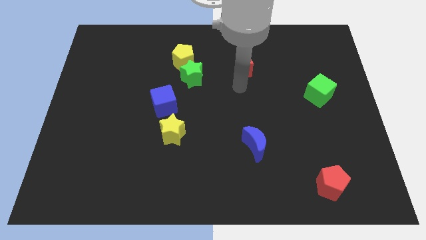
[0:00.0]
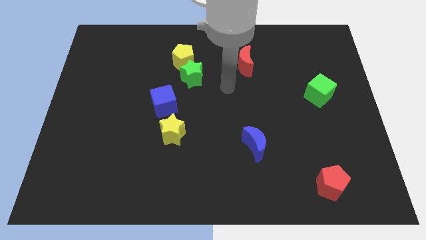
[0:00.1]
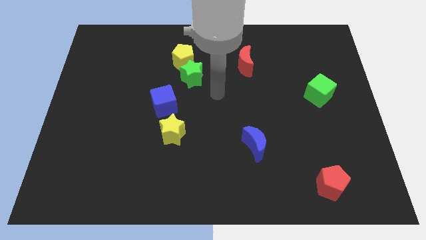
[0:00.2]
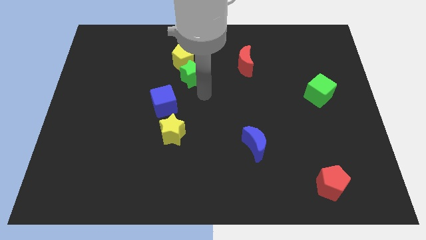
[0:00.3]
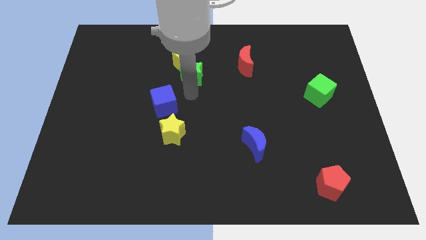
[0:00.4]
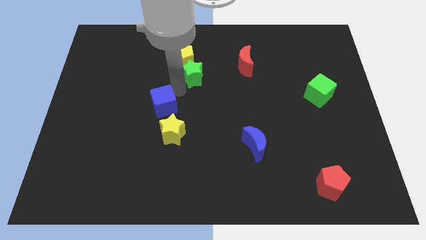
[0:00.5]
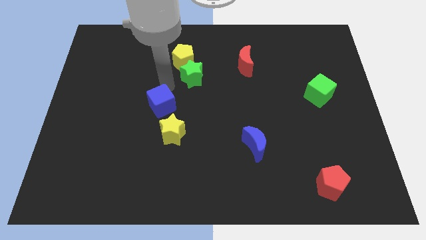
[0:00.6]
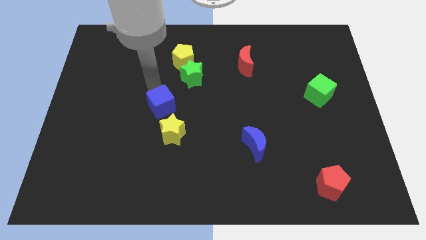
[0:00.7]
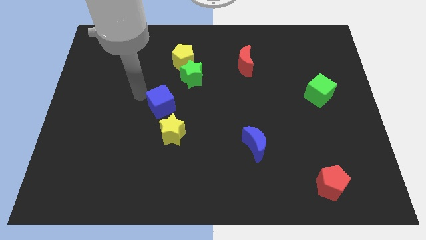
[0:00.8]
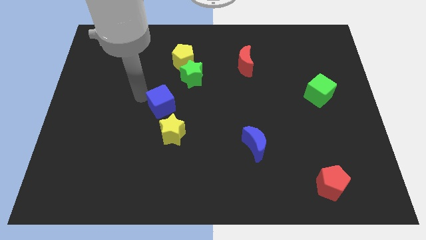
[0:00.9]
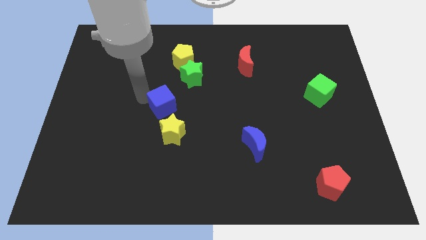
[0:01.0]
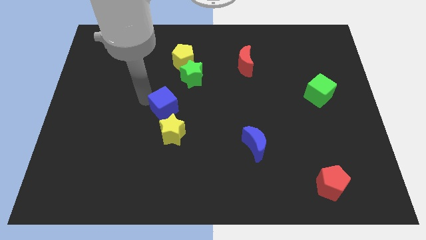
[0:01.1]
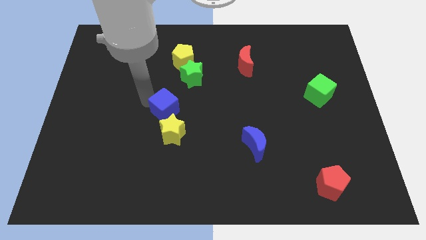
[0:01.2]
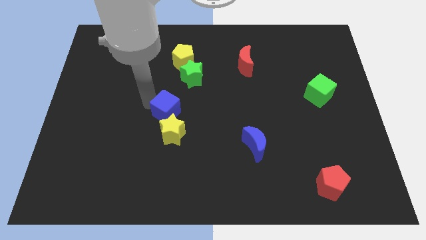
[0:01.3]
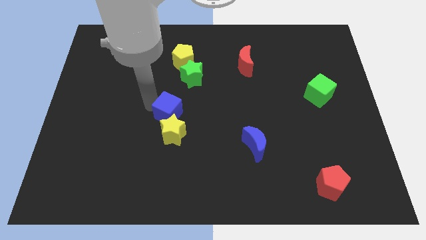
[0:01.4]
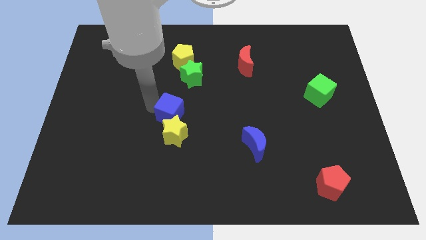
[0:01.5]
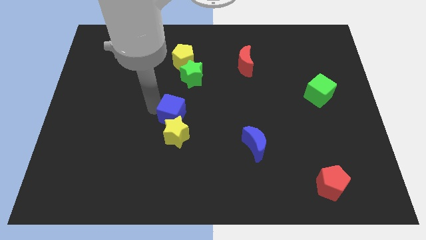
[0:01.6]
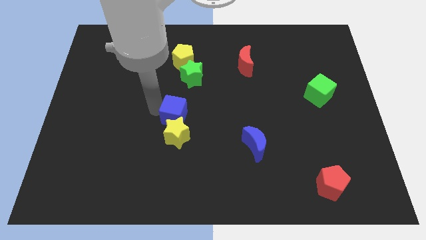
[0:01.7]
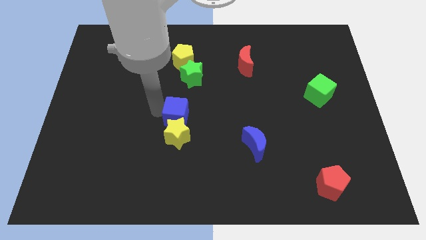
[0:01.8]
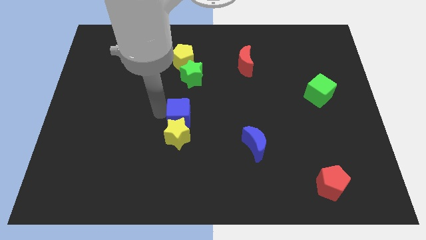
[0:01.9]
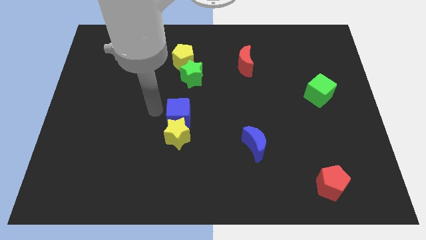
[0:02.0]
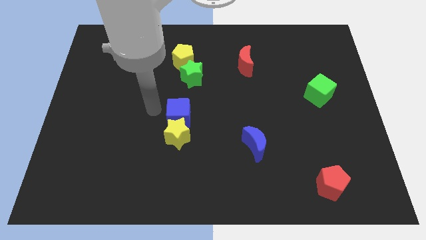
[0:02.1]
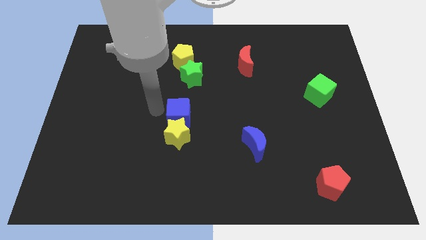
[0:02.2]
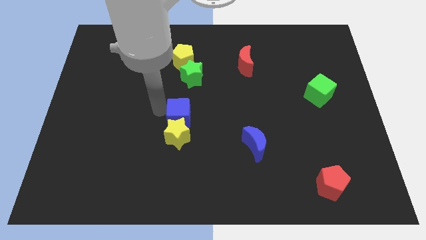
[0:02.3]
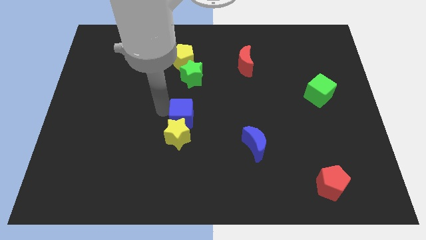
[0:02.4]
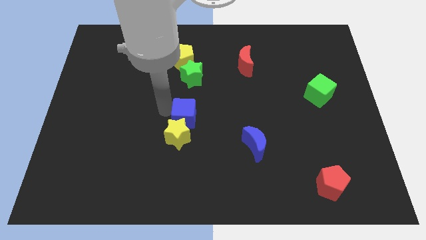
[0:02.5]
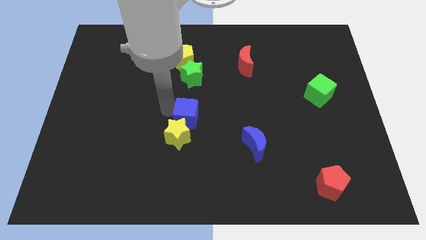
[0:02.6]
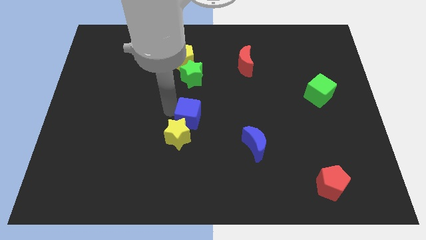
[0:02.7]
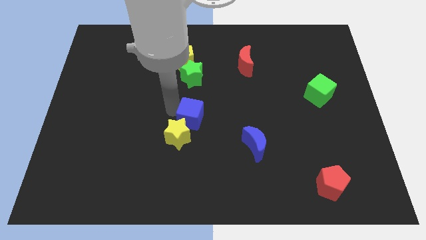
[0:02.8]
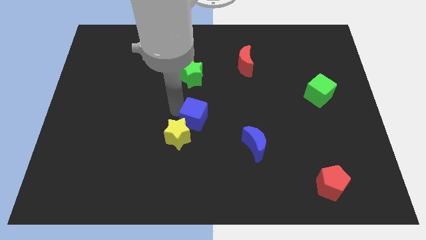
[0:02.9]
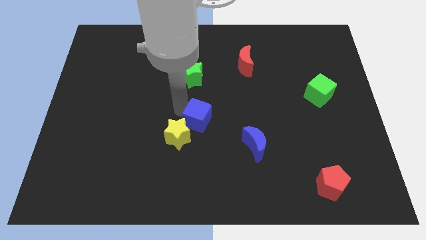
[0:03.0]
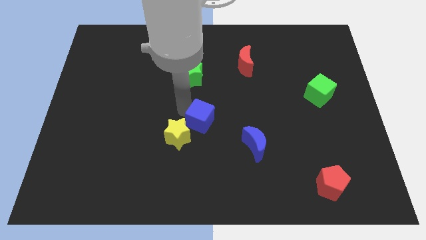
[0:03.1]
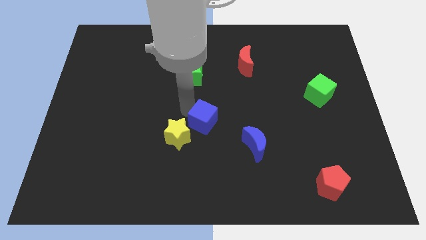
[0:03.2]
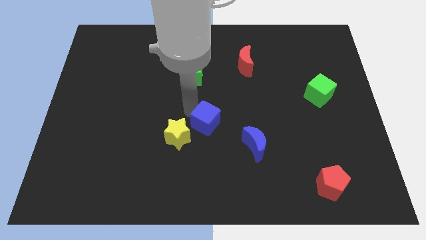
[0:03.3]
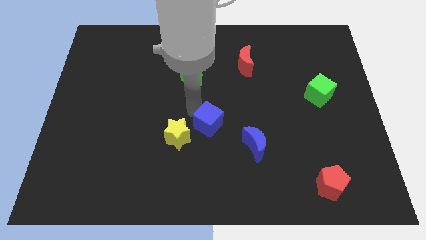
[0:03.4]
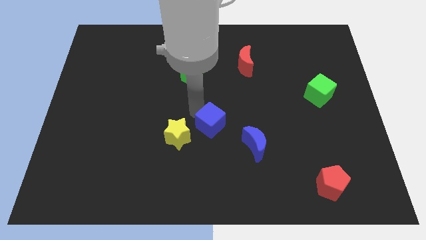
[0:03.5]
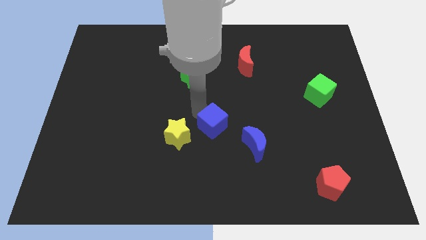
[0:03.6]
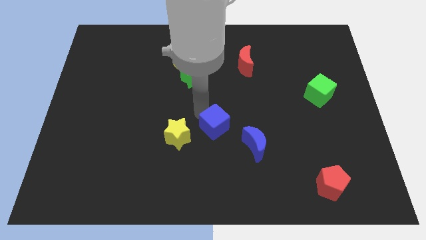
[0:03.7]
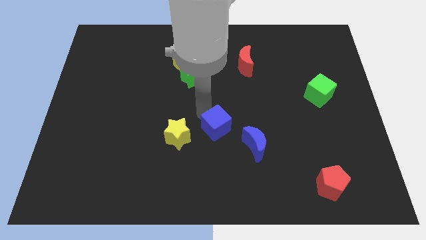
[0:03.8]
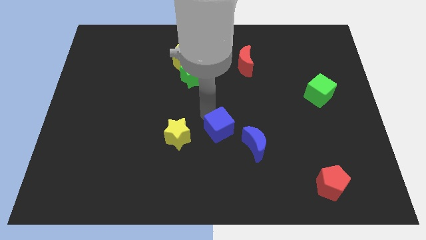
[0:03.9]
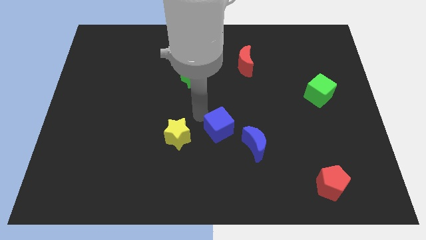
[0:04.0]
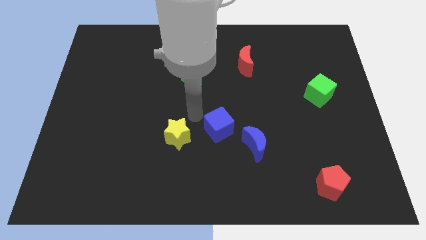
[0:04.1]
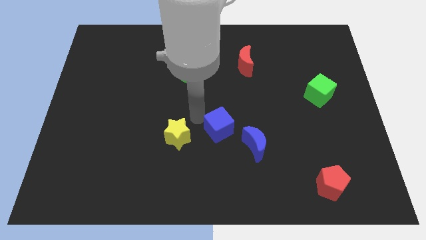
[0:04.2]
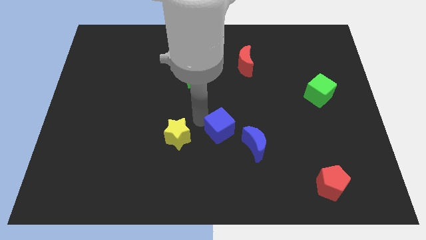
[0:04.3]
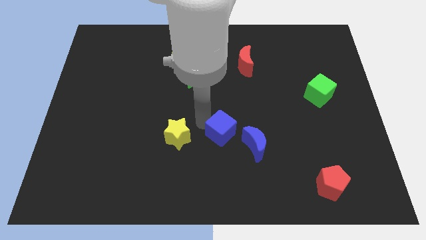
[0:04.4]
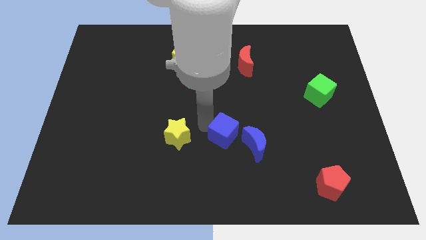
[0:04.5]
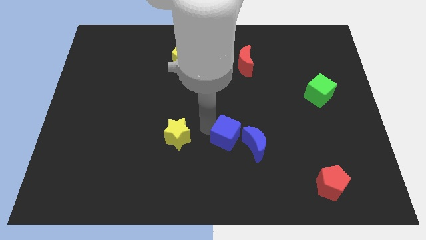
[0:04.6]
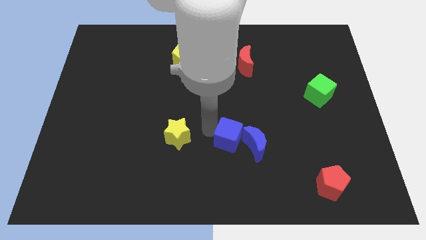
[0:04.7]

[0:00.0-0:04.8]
move the blue cube towards the blue moon

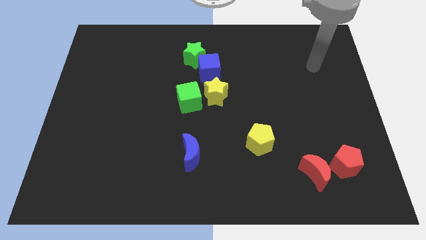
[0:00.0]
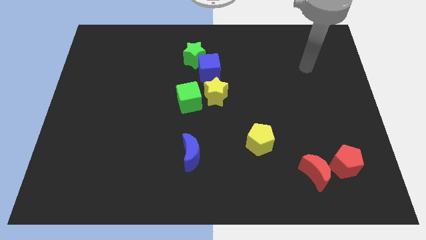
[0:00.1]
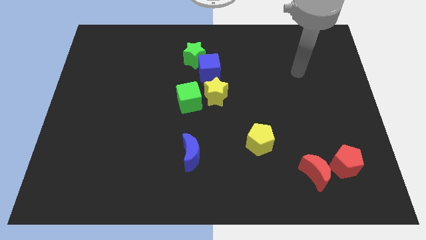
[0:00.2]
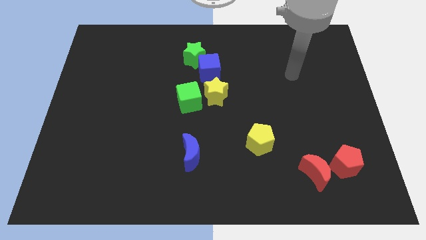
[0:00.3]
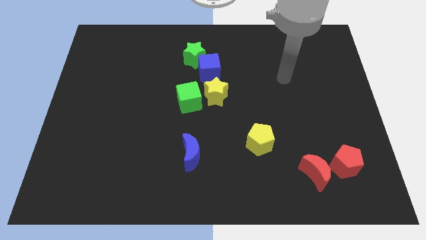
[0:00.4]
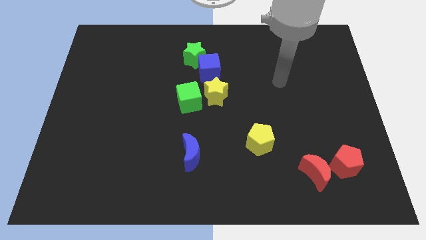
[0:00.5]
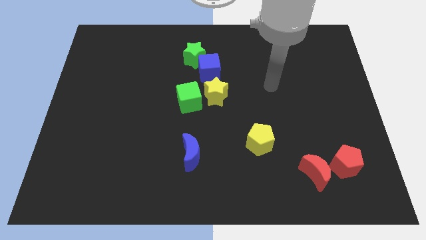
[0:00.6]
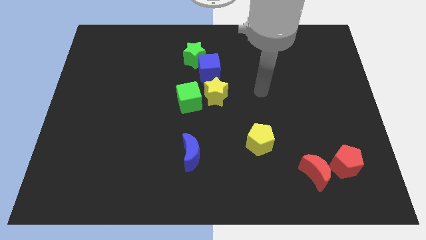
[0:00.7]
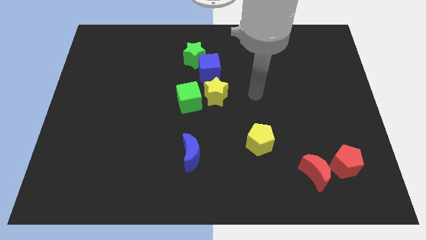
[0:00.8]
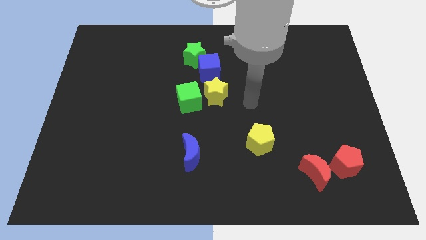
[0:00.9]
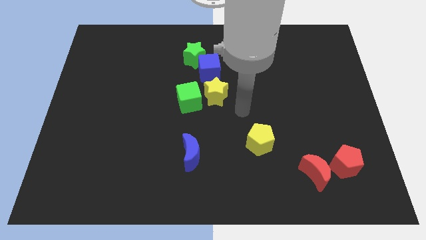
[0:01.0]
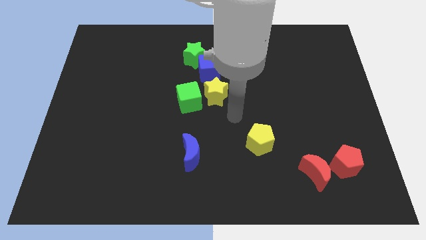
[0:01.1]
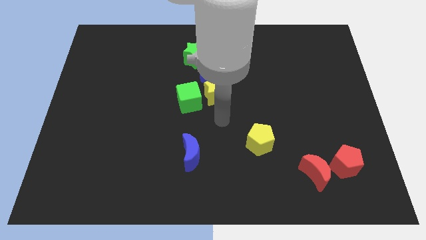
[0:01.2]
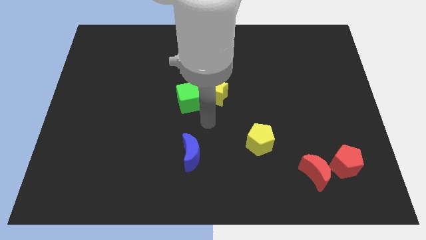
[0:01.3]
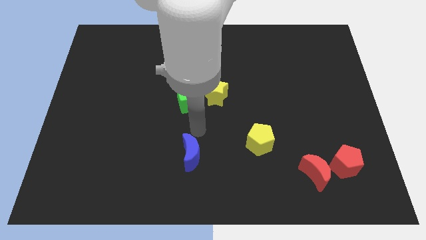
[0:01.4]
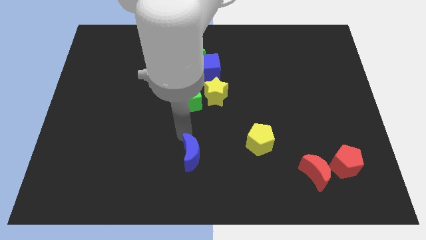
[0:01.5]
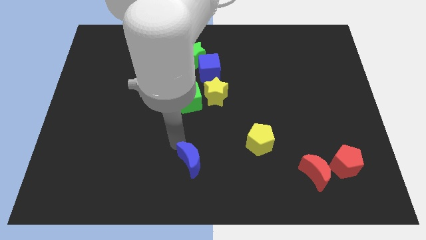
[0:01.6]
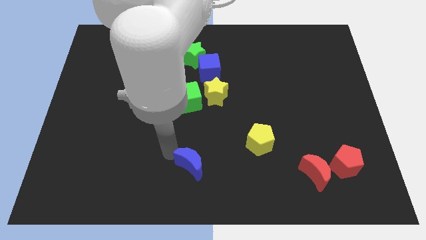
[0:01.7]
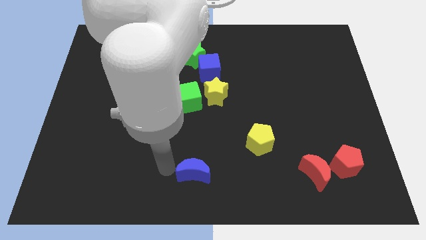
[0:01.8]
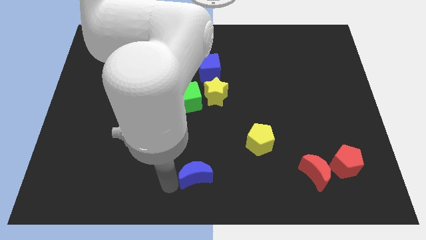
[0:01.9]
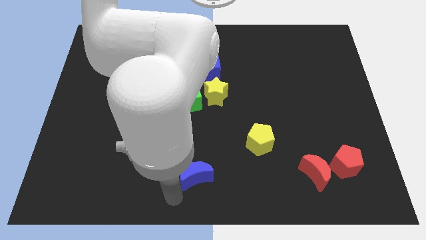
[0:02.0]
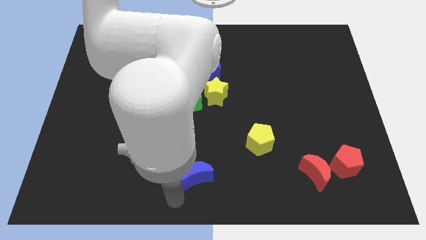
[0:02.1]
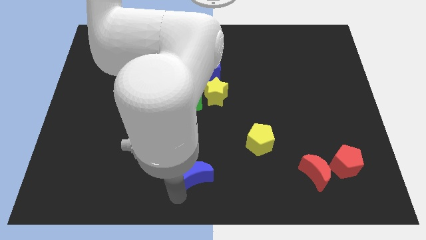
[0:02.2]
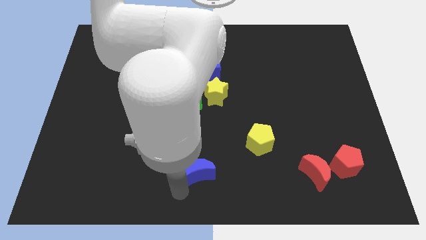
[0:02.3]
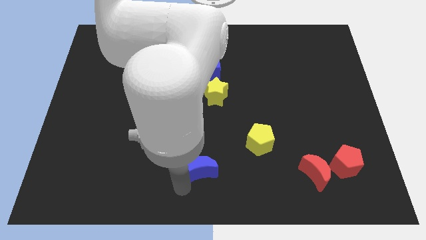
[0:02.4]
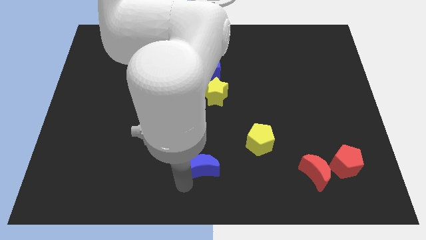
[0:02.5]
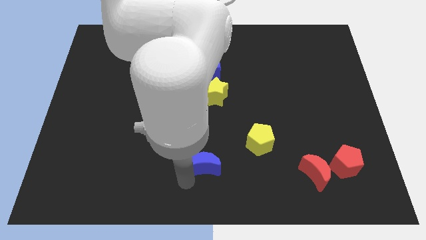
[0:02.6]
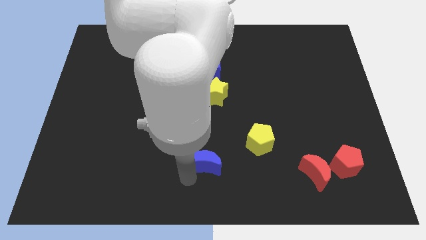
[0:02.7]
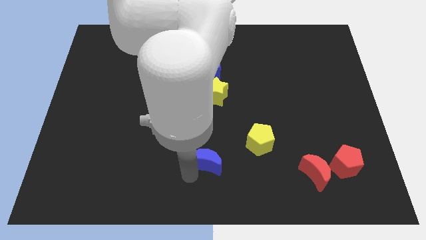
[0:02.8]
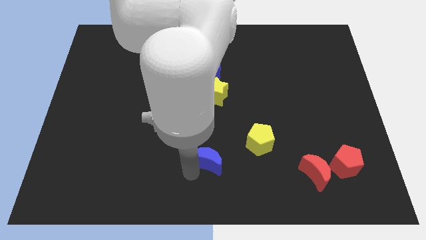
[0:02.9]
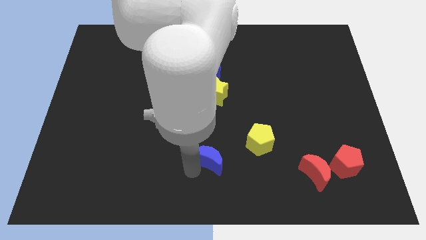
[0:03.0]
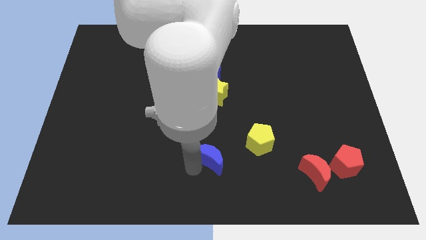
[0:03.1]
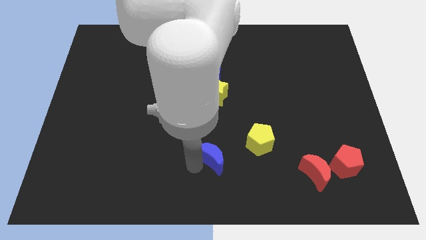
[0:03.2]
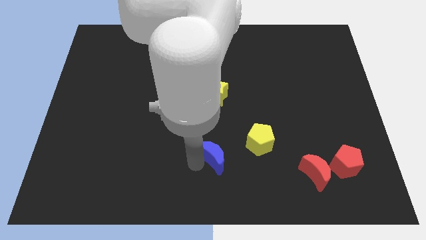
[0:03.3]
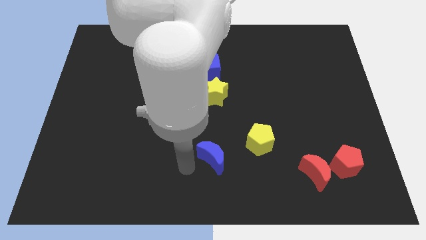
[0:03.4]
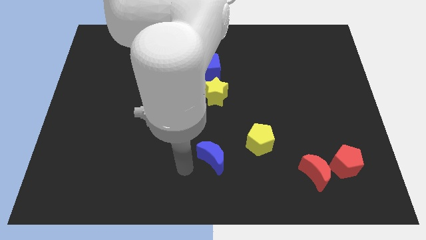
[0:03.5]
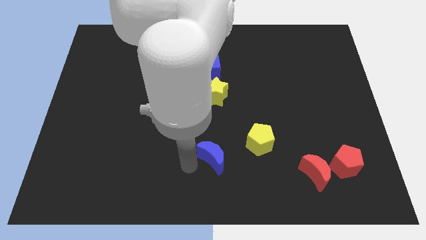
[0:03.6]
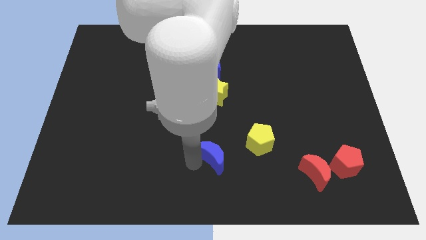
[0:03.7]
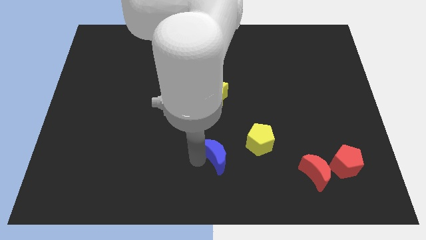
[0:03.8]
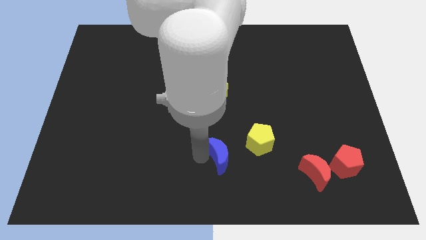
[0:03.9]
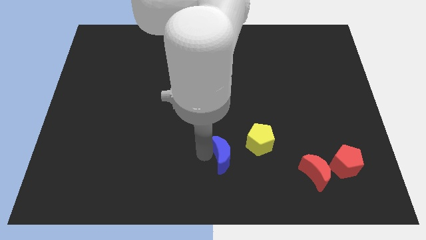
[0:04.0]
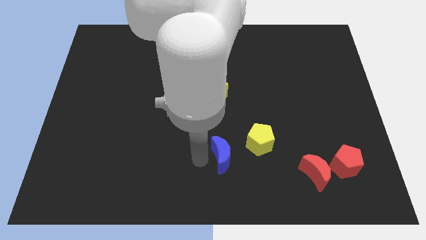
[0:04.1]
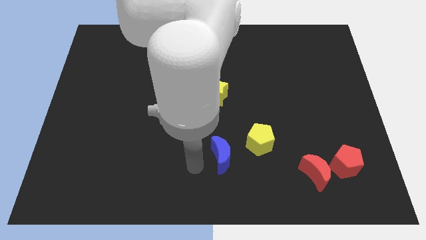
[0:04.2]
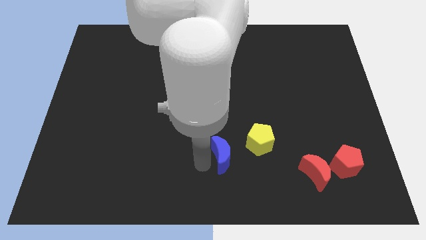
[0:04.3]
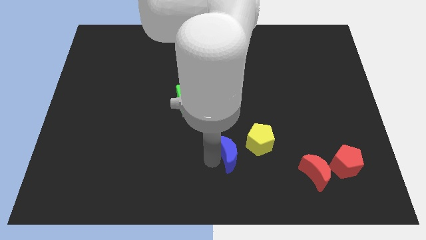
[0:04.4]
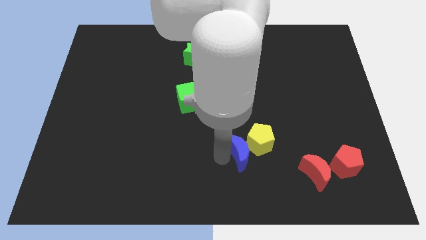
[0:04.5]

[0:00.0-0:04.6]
put the blue moon next to the yellow pentagon
